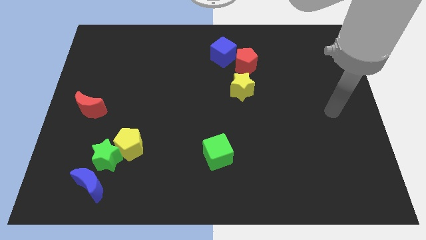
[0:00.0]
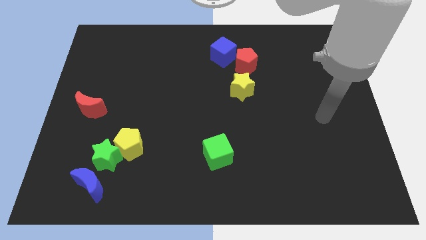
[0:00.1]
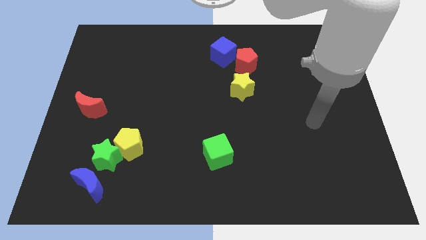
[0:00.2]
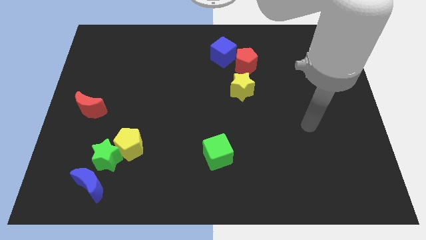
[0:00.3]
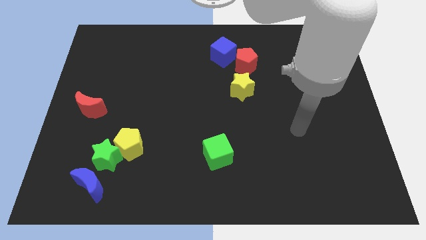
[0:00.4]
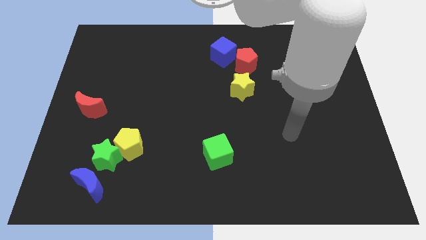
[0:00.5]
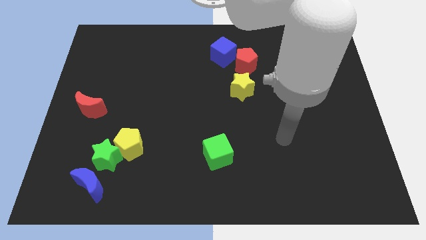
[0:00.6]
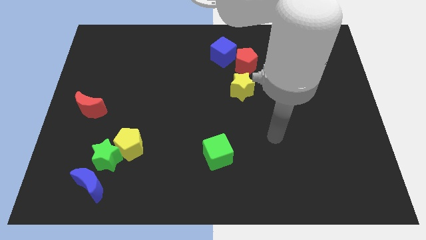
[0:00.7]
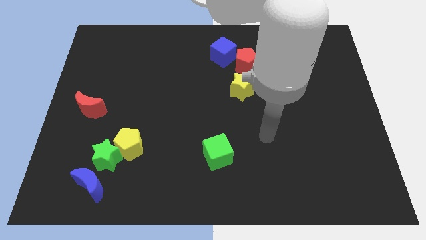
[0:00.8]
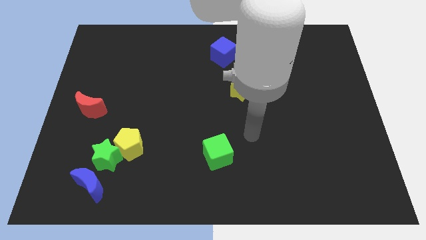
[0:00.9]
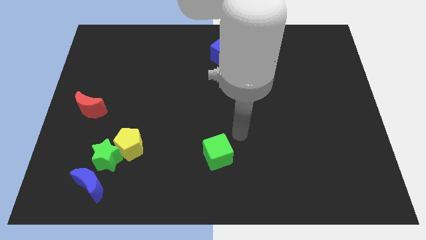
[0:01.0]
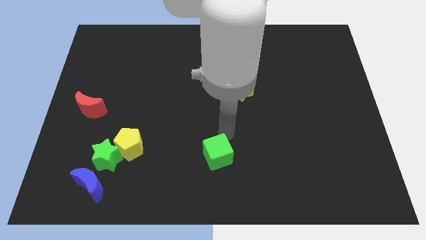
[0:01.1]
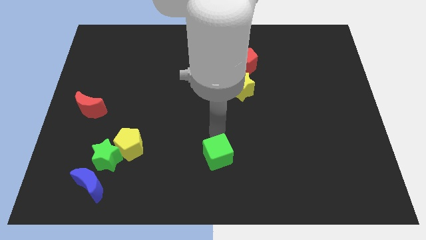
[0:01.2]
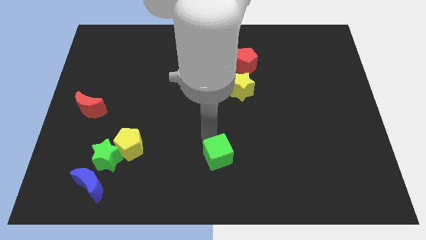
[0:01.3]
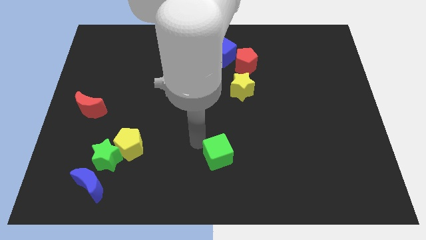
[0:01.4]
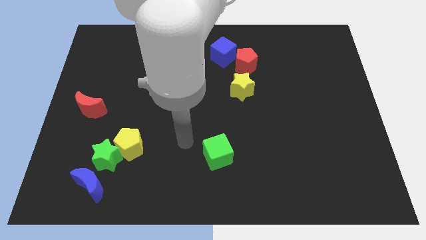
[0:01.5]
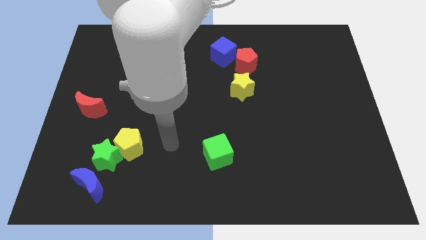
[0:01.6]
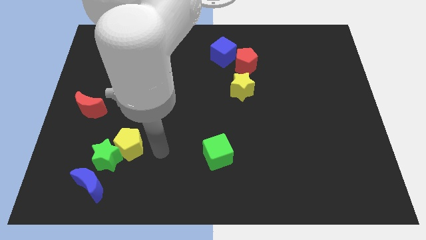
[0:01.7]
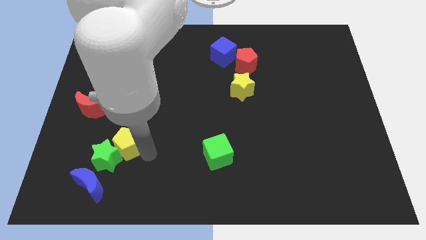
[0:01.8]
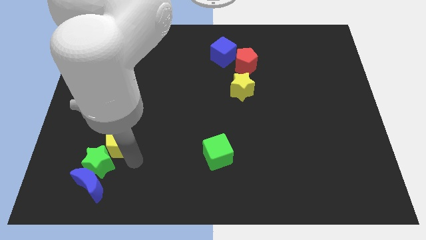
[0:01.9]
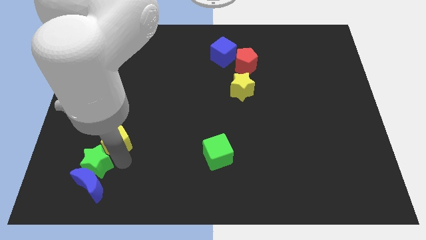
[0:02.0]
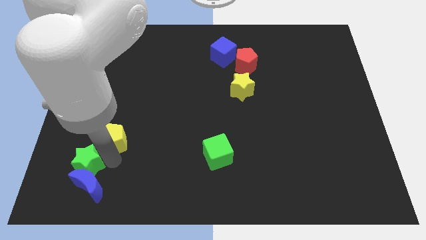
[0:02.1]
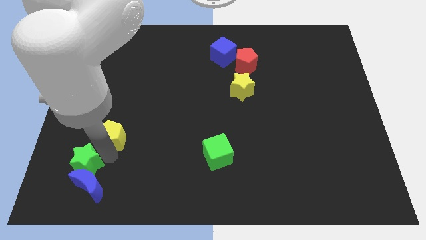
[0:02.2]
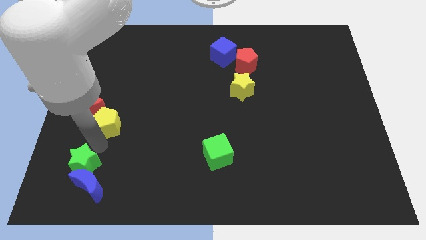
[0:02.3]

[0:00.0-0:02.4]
move the yellow pentagon away from the green star

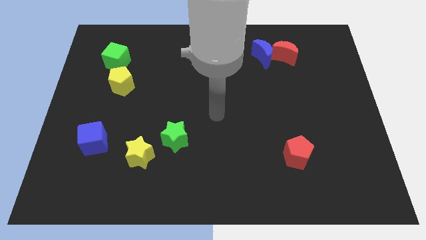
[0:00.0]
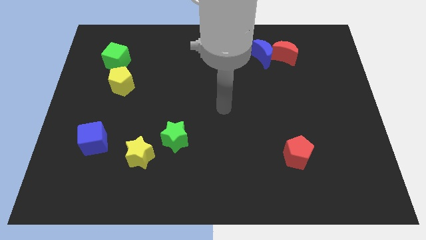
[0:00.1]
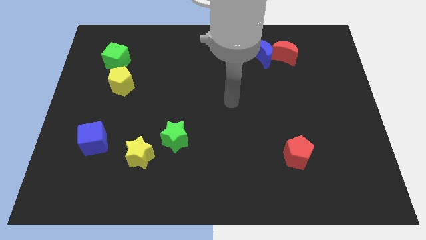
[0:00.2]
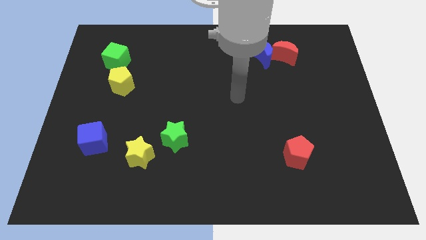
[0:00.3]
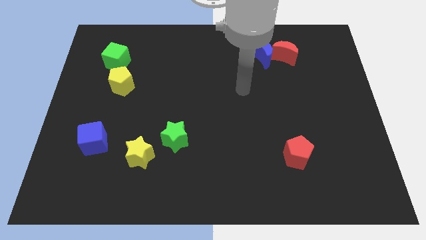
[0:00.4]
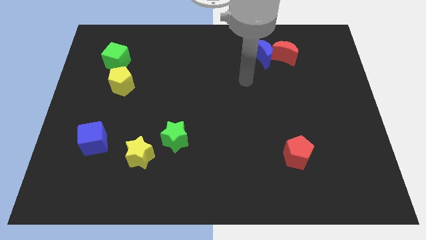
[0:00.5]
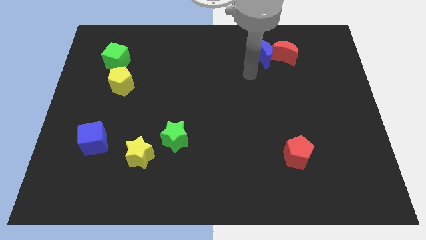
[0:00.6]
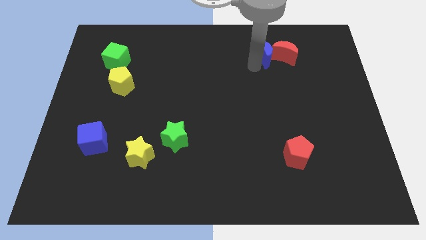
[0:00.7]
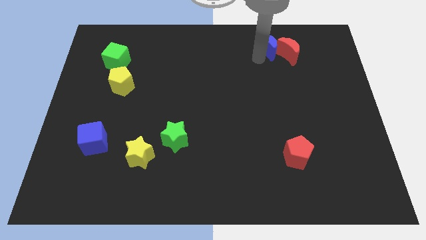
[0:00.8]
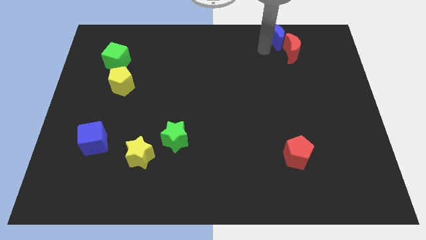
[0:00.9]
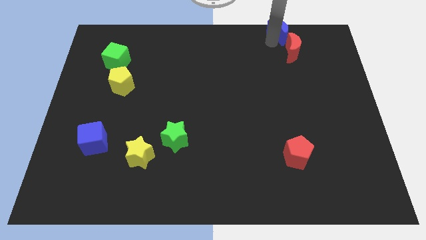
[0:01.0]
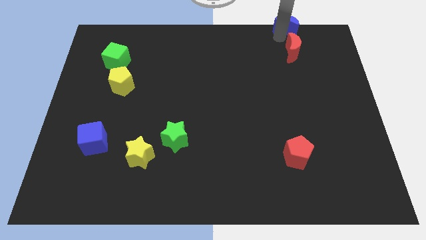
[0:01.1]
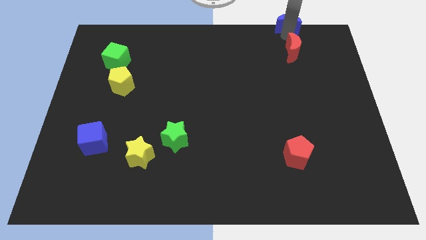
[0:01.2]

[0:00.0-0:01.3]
pull the red moon apart from the blue moon

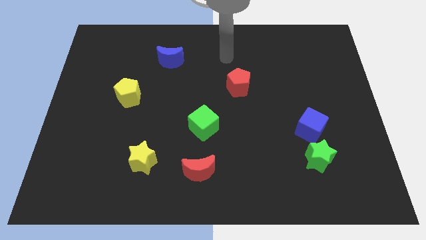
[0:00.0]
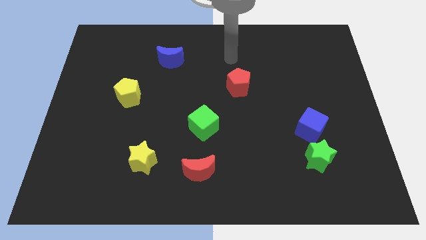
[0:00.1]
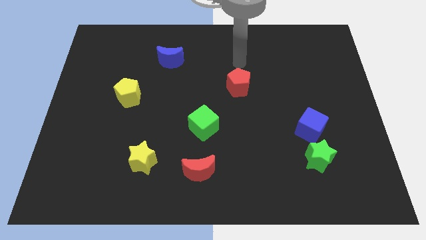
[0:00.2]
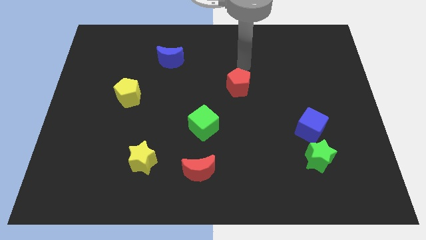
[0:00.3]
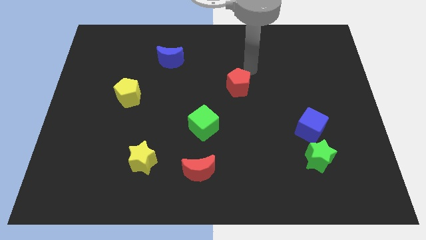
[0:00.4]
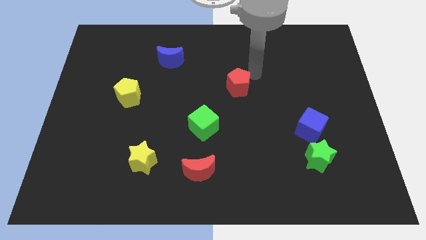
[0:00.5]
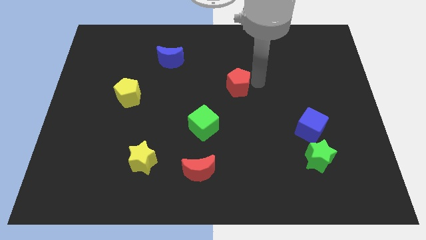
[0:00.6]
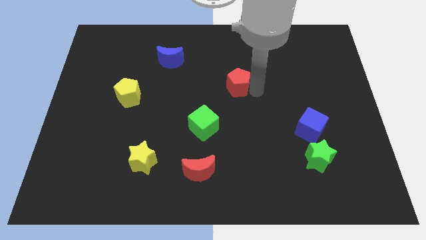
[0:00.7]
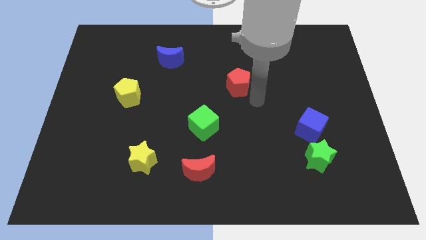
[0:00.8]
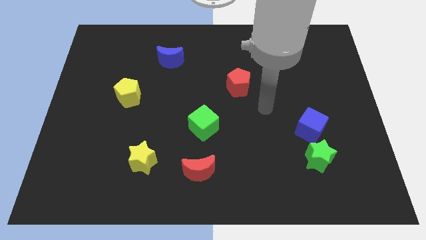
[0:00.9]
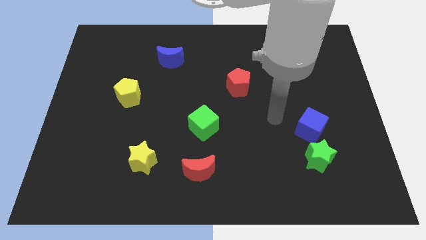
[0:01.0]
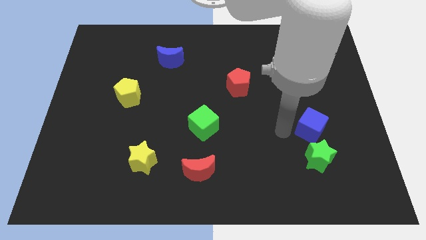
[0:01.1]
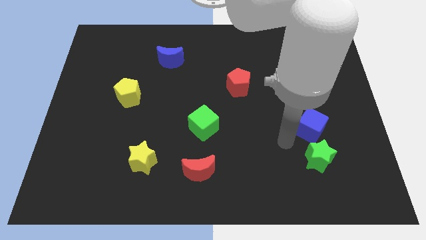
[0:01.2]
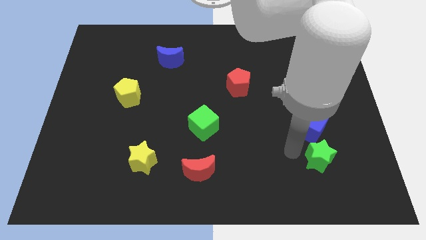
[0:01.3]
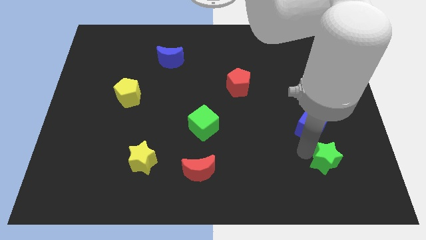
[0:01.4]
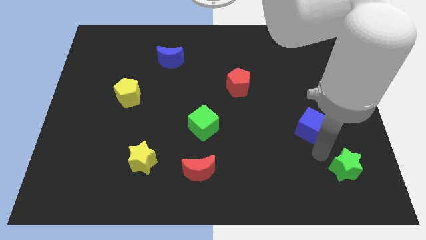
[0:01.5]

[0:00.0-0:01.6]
pull the blue cube apart from the green star

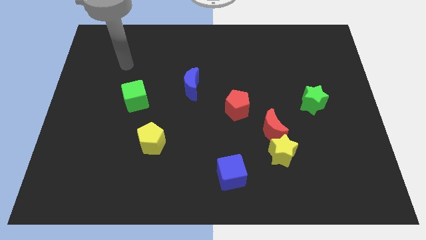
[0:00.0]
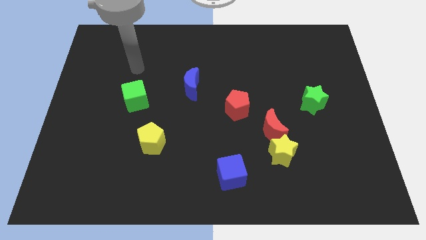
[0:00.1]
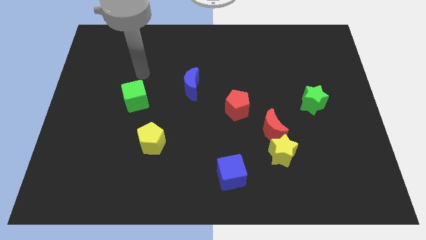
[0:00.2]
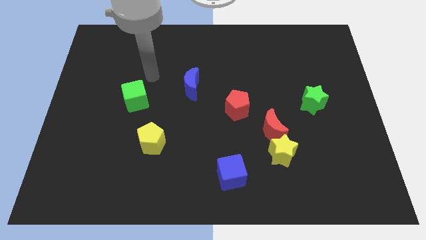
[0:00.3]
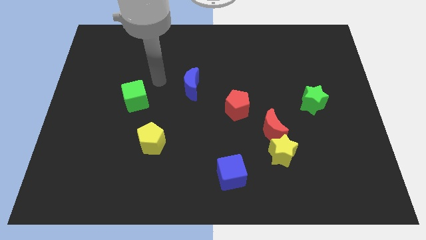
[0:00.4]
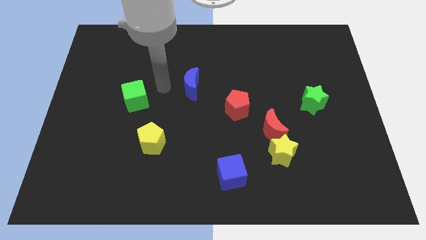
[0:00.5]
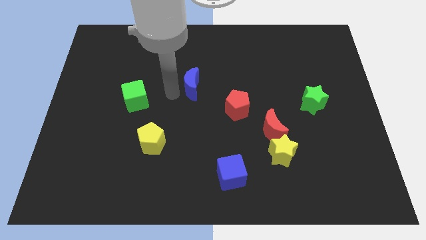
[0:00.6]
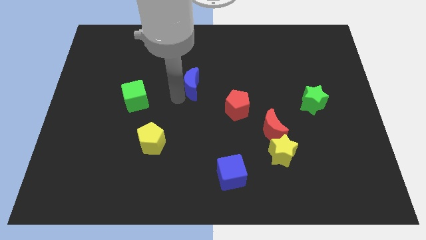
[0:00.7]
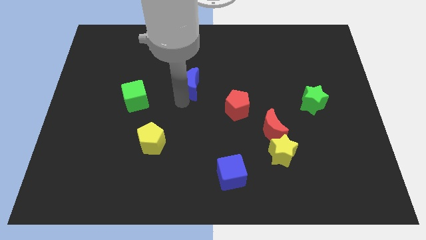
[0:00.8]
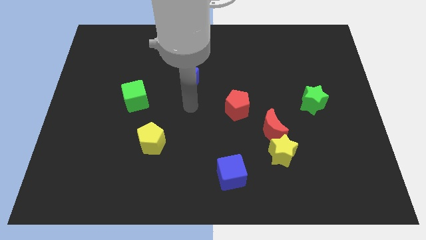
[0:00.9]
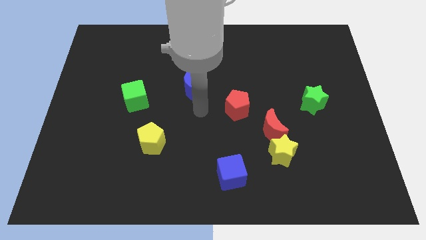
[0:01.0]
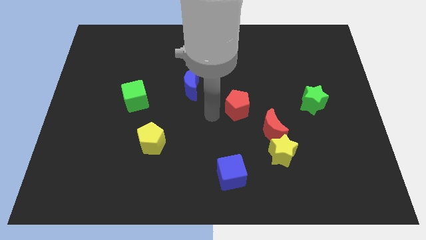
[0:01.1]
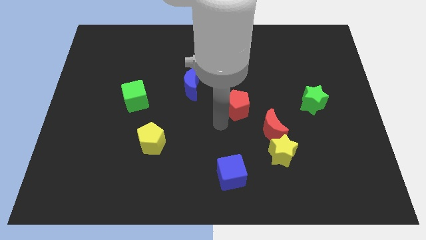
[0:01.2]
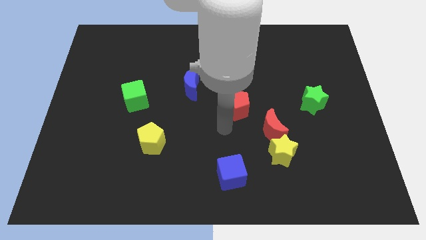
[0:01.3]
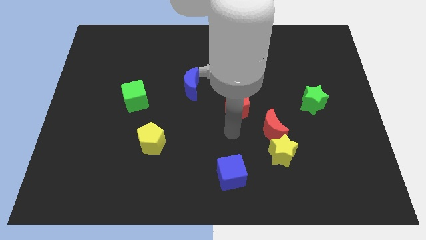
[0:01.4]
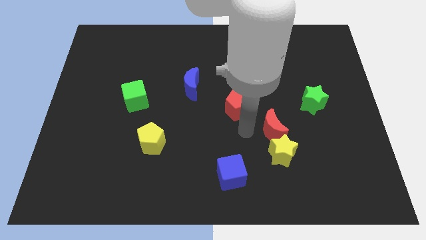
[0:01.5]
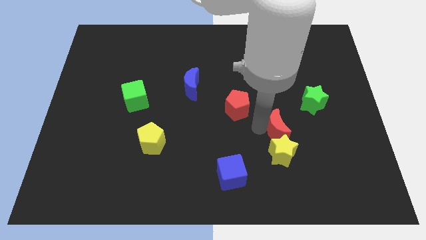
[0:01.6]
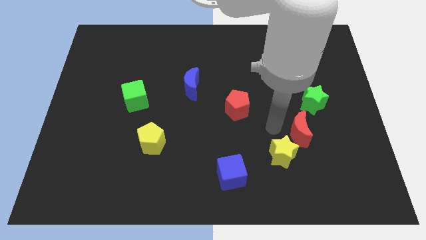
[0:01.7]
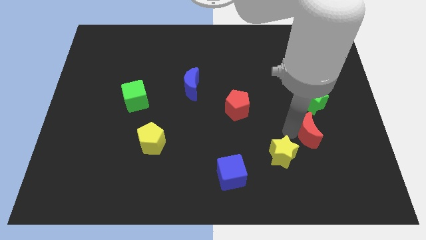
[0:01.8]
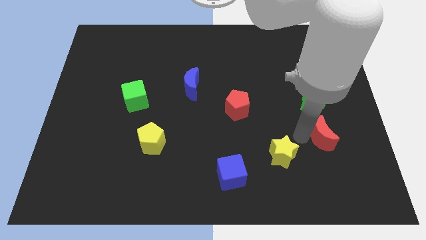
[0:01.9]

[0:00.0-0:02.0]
separate the yellow star from the red moon

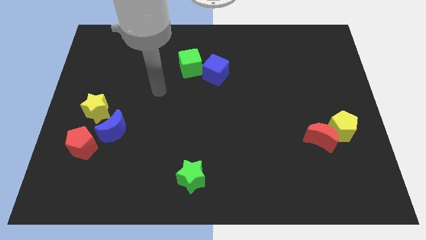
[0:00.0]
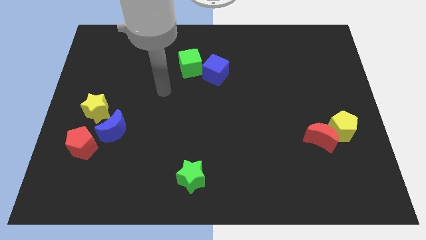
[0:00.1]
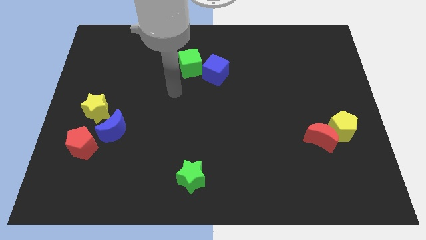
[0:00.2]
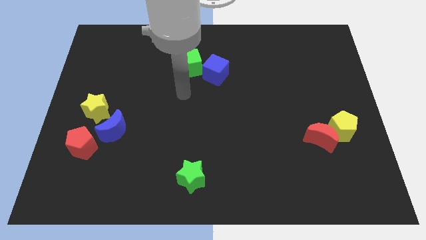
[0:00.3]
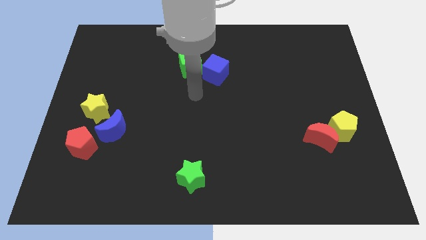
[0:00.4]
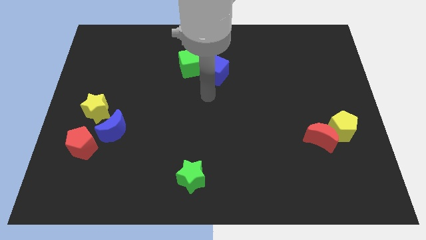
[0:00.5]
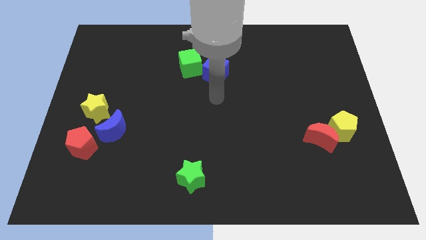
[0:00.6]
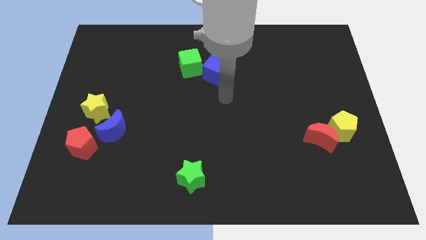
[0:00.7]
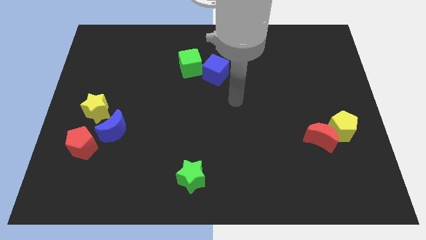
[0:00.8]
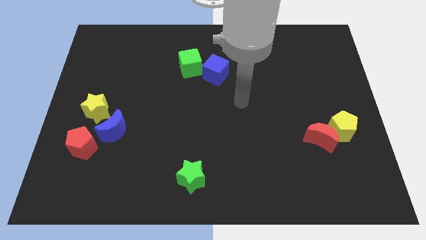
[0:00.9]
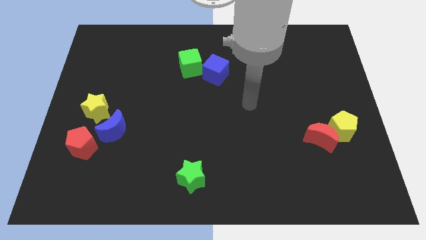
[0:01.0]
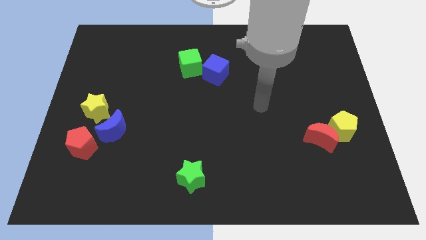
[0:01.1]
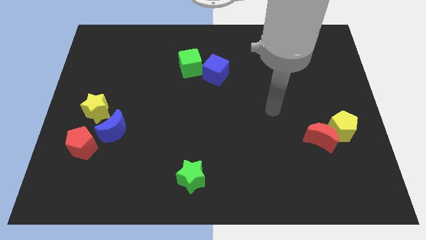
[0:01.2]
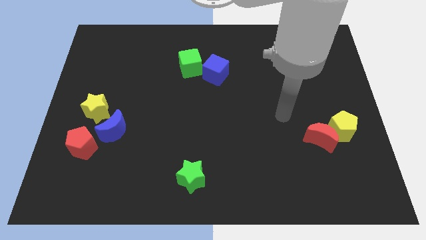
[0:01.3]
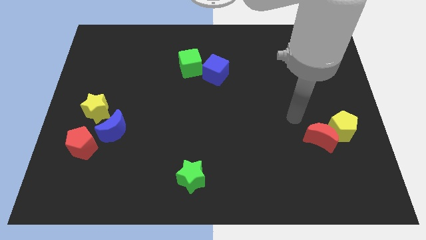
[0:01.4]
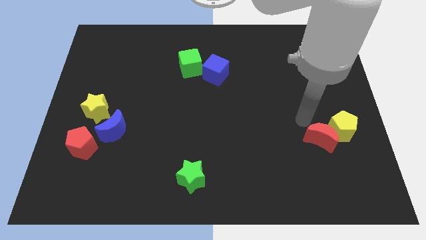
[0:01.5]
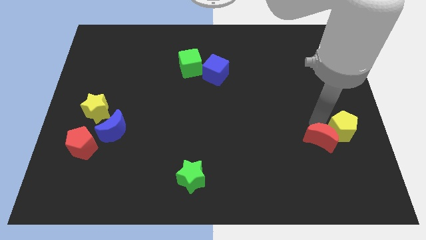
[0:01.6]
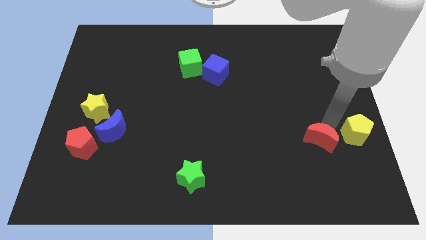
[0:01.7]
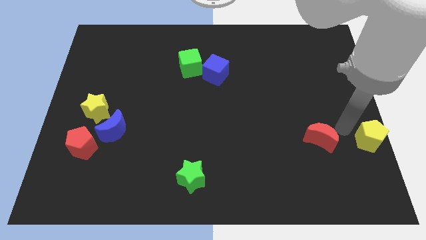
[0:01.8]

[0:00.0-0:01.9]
pull the red moon apart from the yellow pentagon

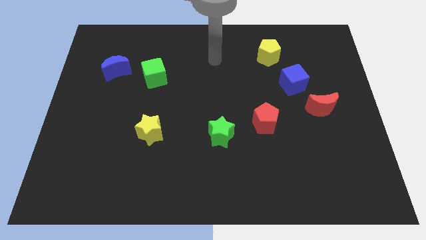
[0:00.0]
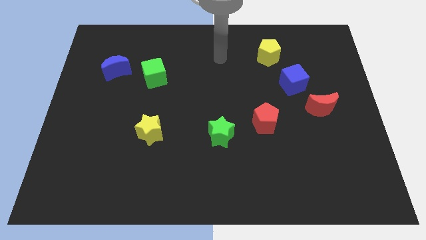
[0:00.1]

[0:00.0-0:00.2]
pull the red moon apart from the blue cube
